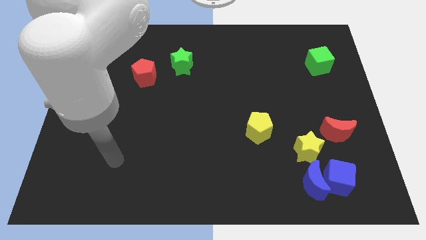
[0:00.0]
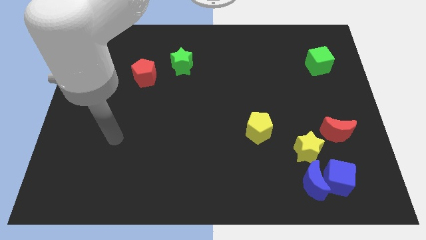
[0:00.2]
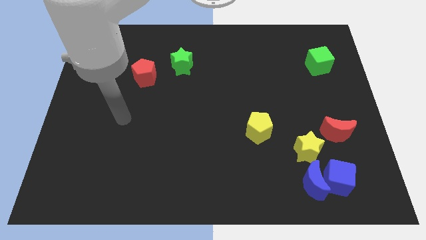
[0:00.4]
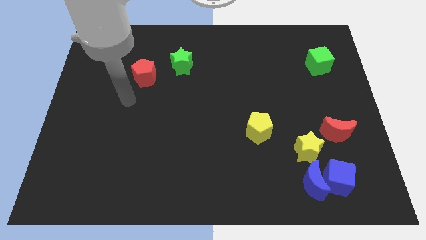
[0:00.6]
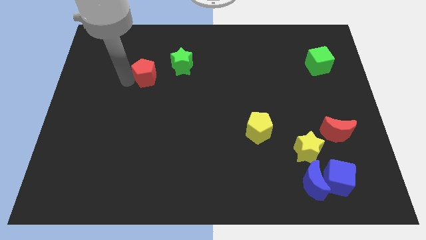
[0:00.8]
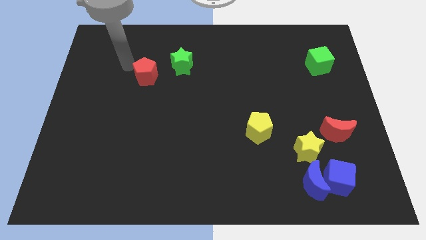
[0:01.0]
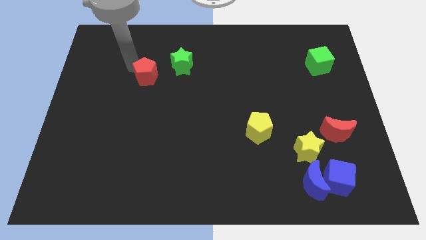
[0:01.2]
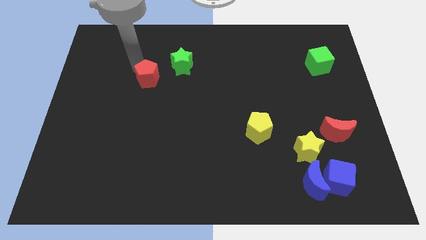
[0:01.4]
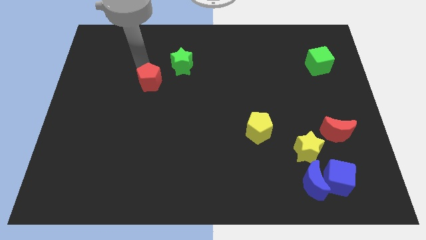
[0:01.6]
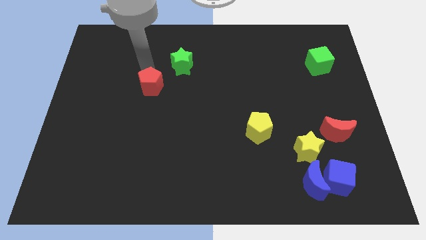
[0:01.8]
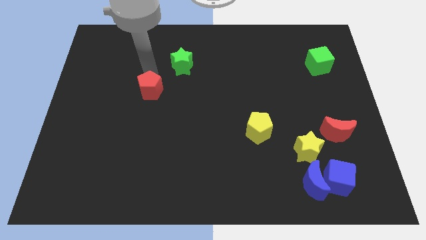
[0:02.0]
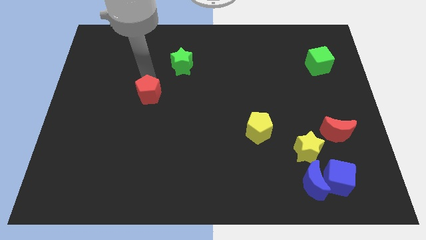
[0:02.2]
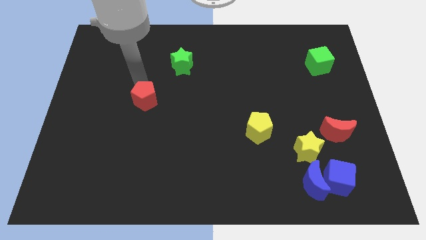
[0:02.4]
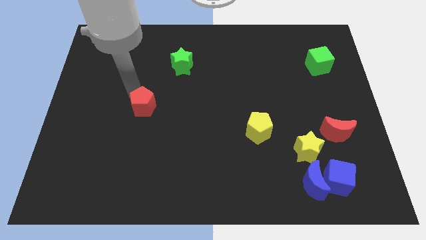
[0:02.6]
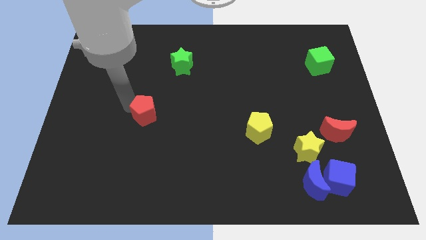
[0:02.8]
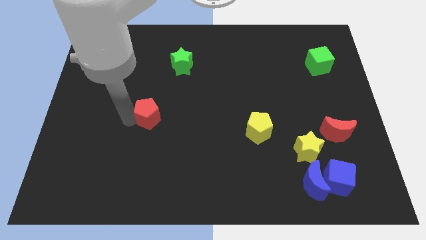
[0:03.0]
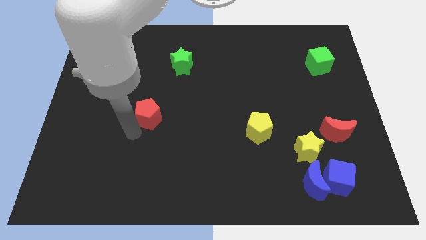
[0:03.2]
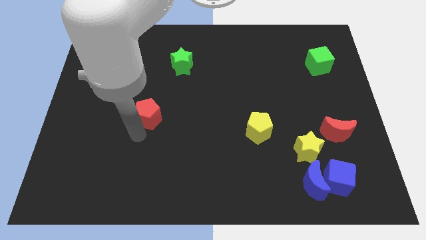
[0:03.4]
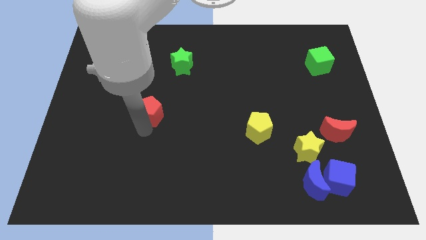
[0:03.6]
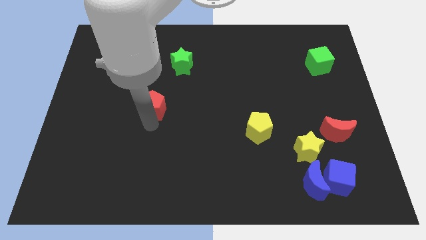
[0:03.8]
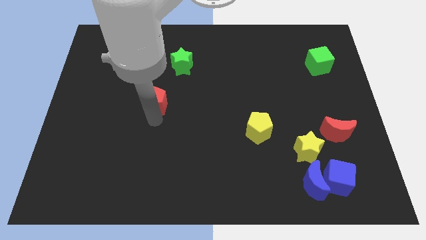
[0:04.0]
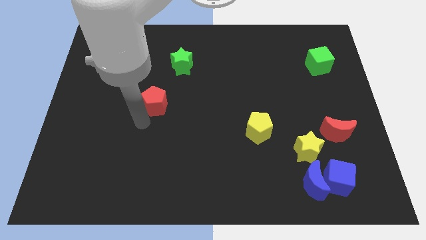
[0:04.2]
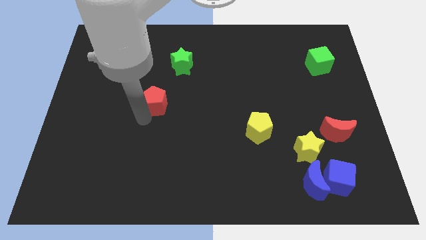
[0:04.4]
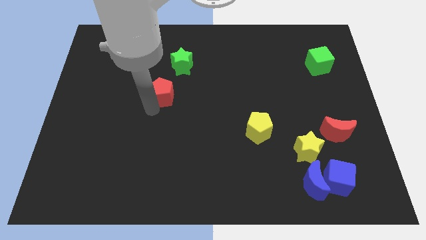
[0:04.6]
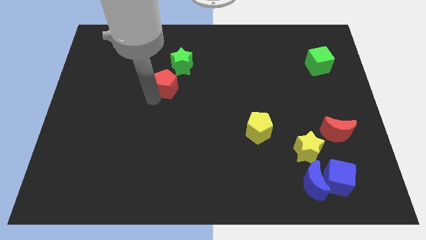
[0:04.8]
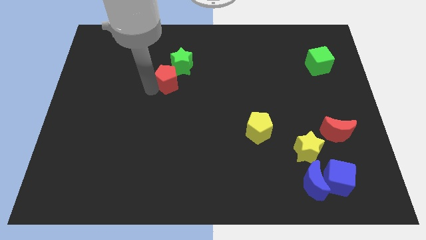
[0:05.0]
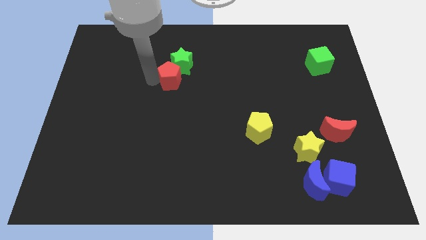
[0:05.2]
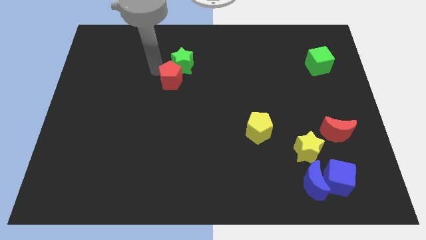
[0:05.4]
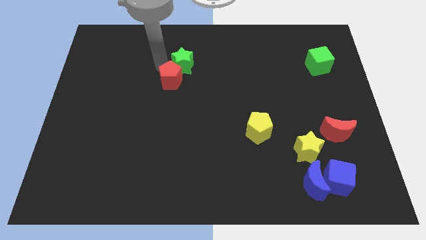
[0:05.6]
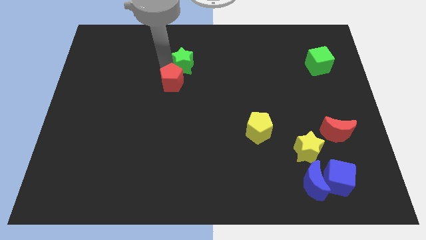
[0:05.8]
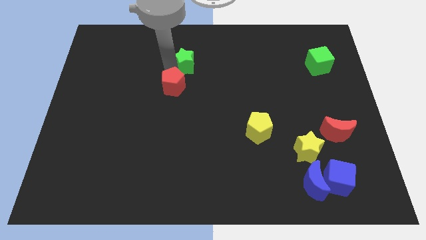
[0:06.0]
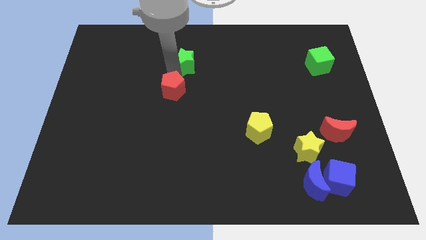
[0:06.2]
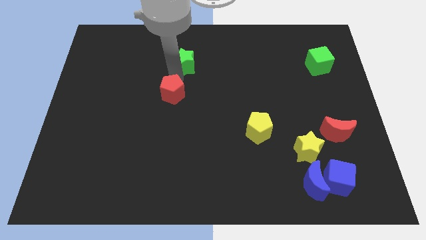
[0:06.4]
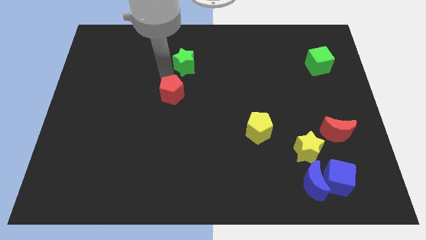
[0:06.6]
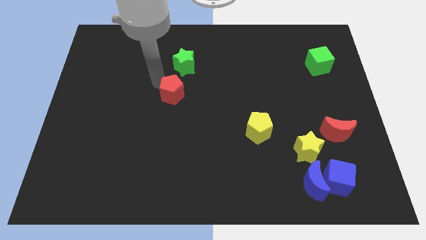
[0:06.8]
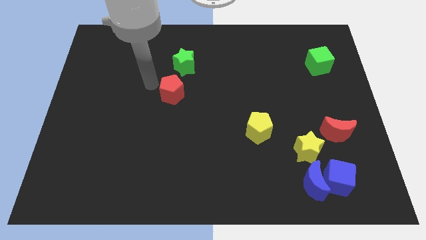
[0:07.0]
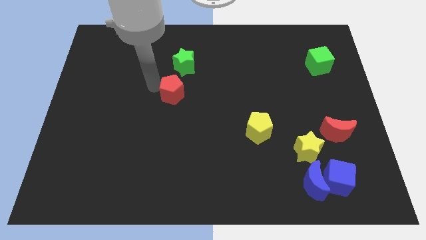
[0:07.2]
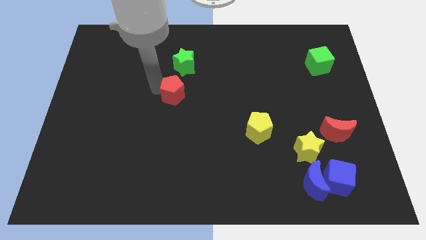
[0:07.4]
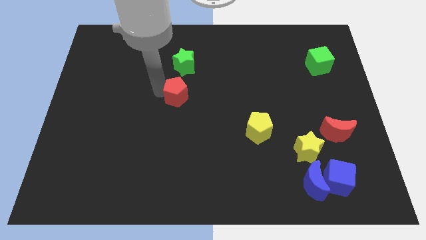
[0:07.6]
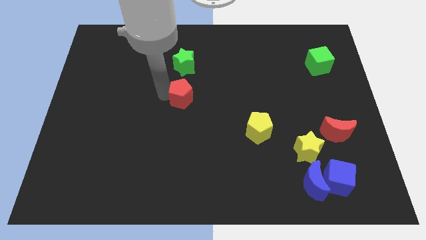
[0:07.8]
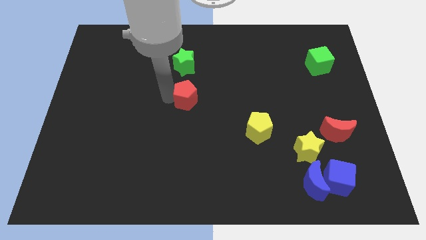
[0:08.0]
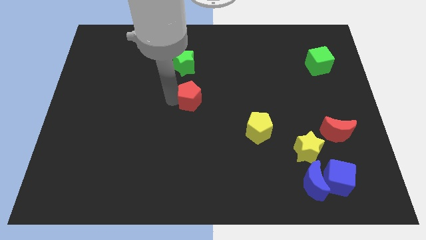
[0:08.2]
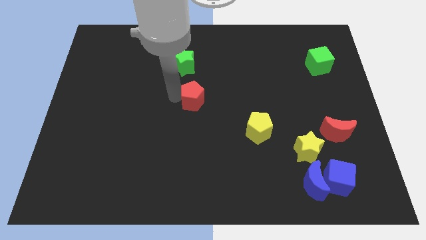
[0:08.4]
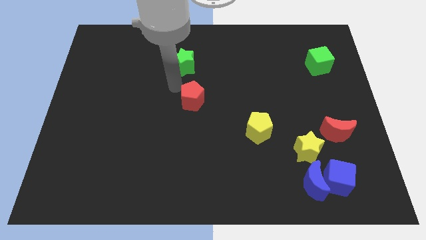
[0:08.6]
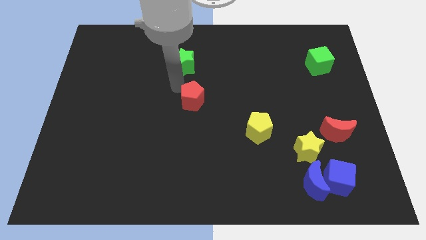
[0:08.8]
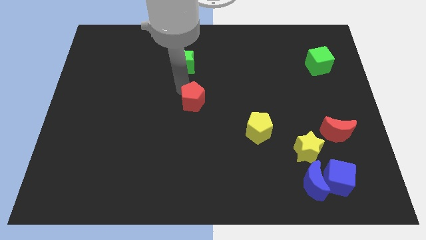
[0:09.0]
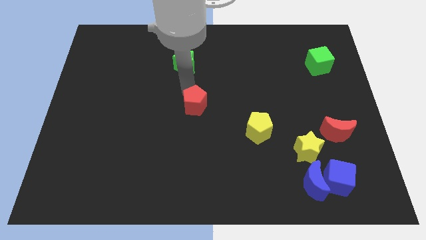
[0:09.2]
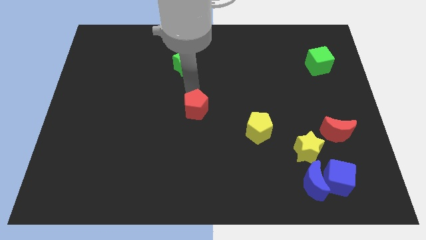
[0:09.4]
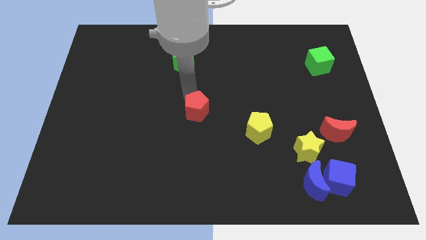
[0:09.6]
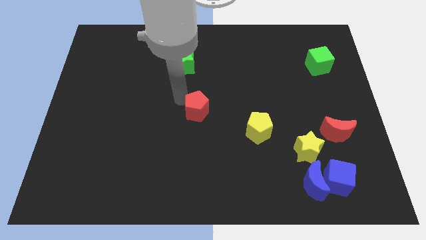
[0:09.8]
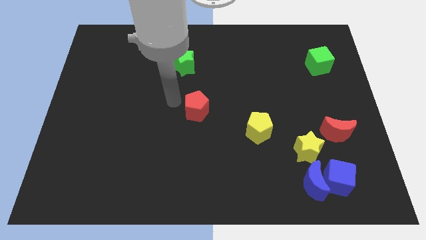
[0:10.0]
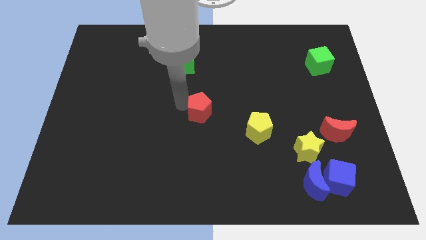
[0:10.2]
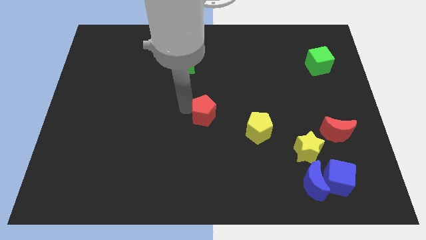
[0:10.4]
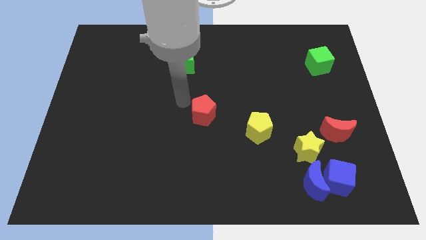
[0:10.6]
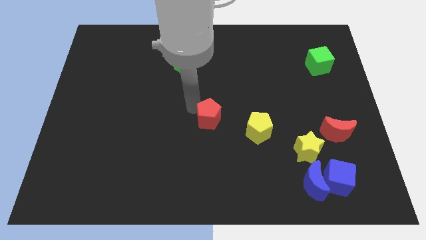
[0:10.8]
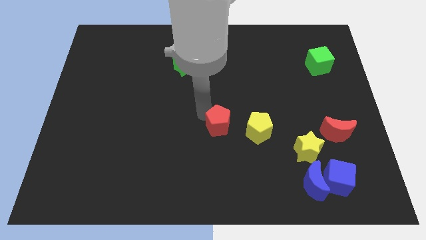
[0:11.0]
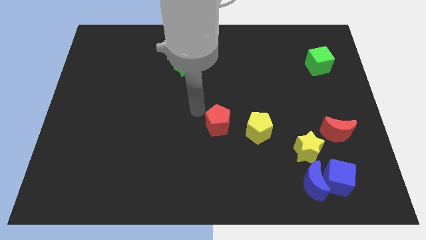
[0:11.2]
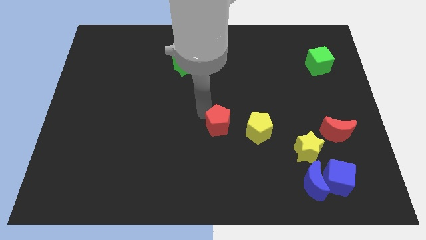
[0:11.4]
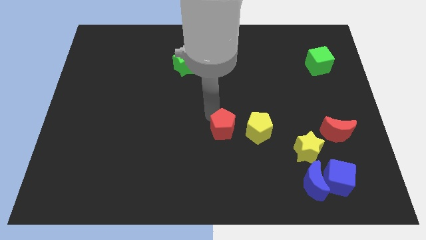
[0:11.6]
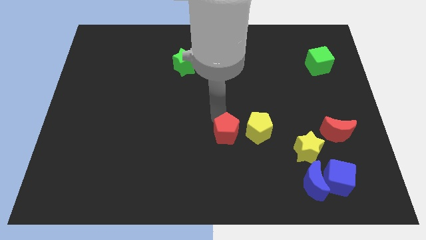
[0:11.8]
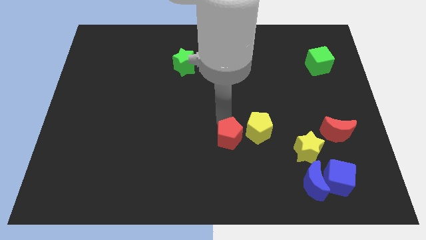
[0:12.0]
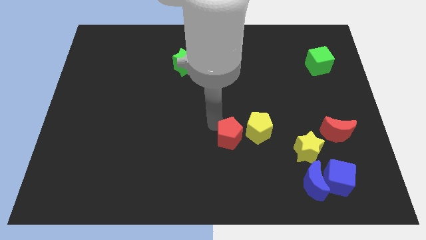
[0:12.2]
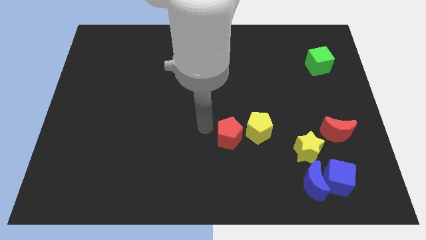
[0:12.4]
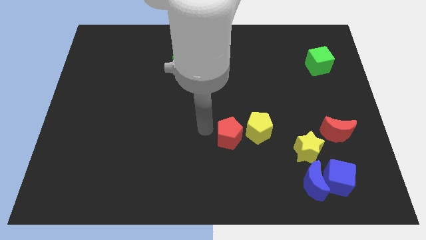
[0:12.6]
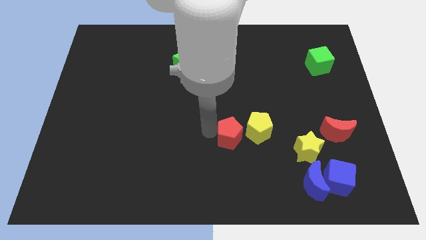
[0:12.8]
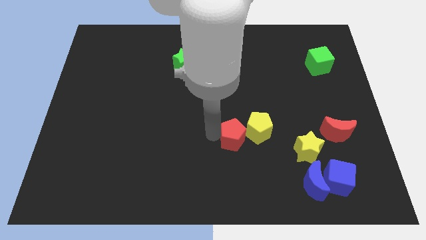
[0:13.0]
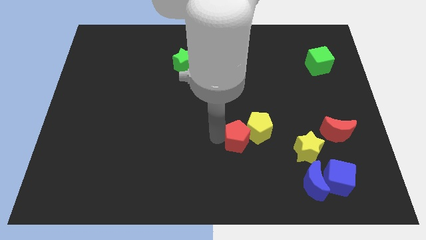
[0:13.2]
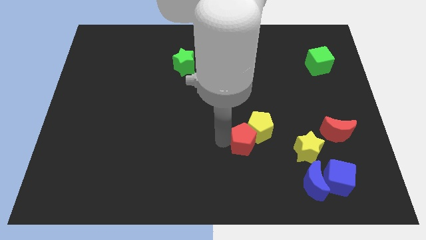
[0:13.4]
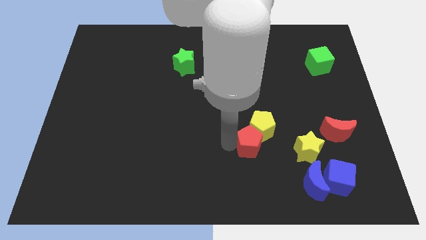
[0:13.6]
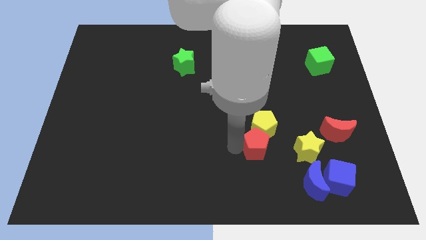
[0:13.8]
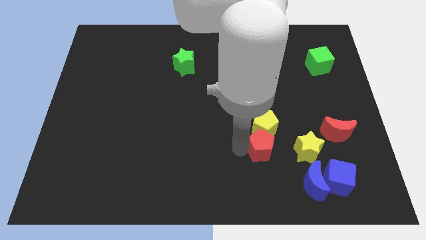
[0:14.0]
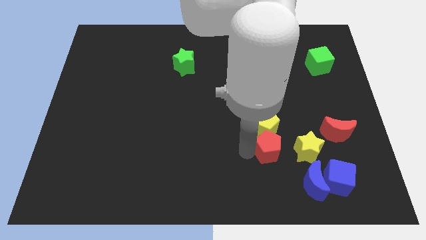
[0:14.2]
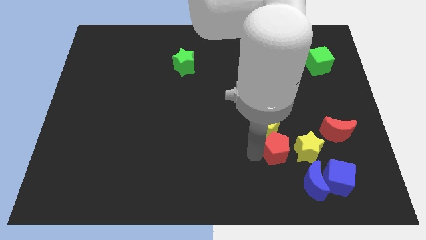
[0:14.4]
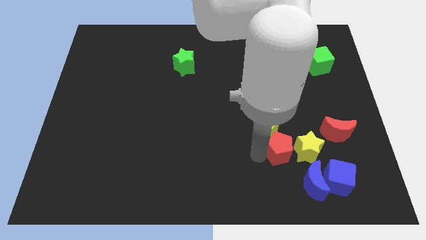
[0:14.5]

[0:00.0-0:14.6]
put the red pentagon towards the yellow star

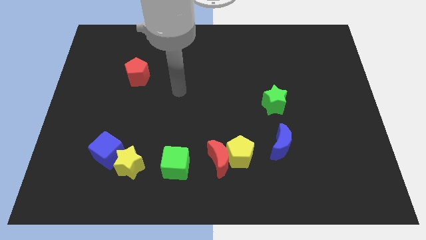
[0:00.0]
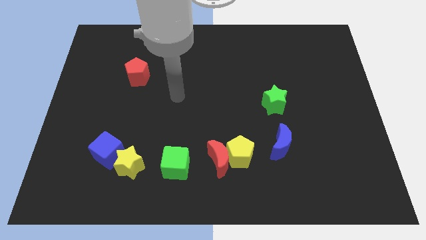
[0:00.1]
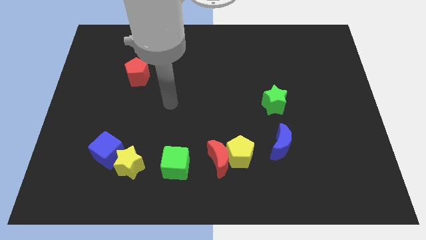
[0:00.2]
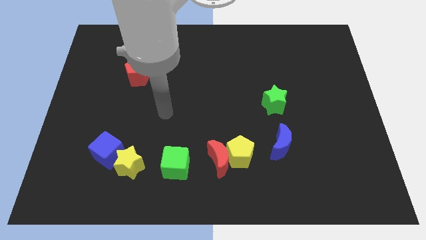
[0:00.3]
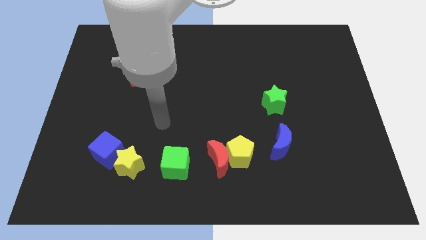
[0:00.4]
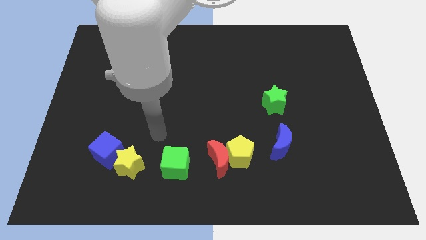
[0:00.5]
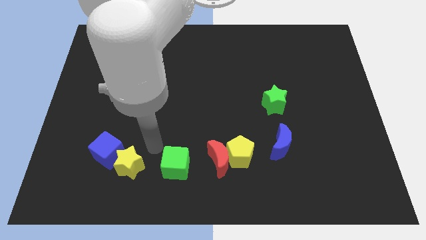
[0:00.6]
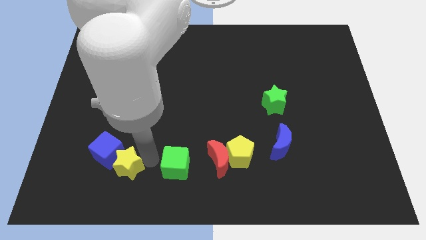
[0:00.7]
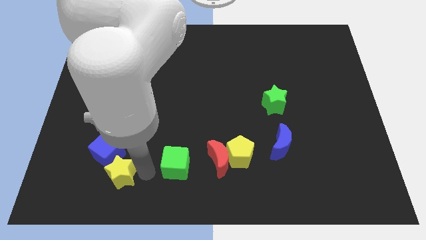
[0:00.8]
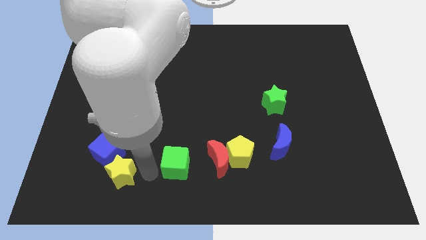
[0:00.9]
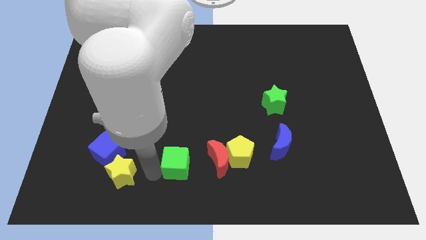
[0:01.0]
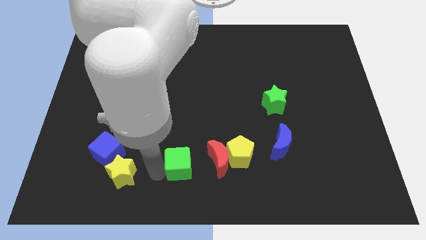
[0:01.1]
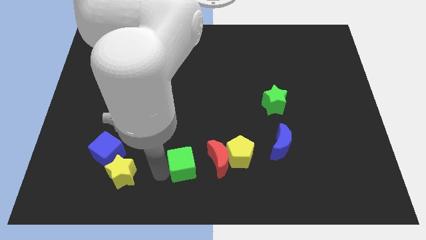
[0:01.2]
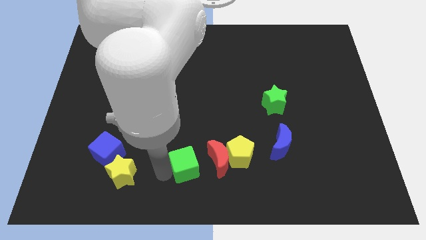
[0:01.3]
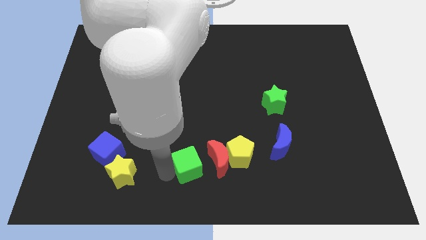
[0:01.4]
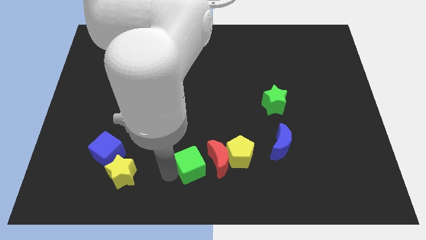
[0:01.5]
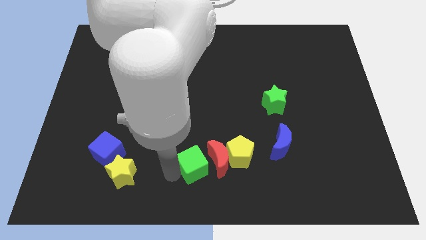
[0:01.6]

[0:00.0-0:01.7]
slide the green cube towards the red moon
